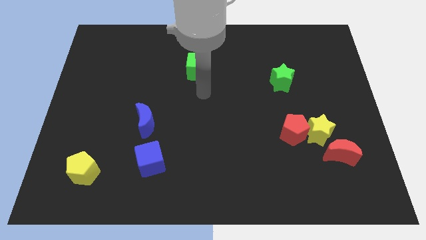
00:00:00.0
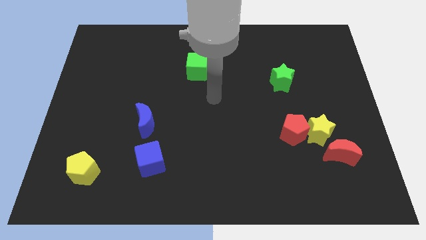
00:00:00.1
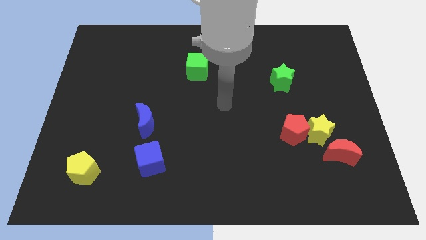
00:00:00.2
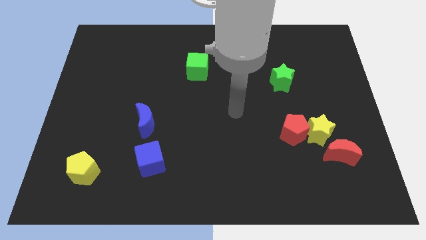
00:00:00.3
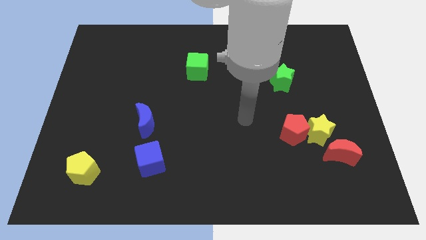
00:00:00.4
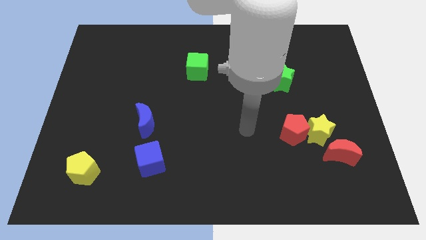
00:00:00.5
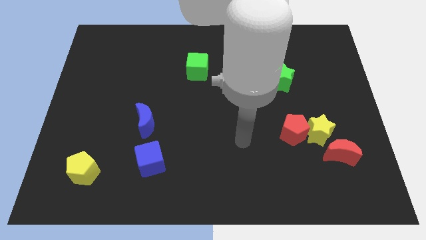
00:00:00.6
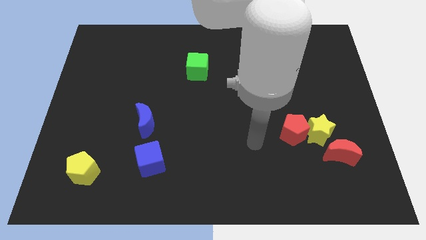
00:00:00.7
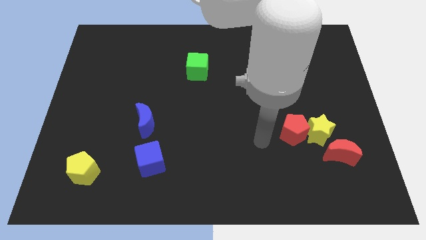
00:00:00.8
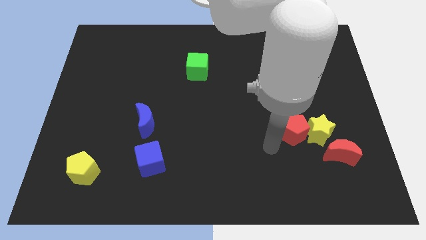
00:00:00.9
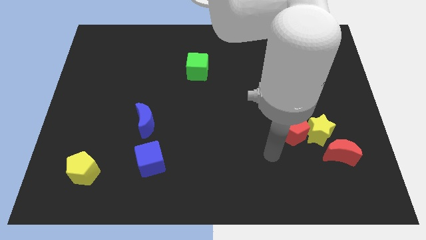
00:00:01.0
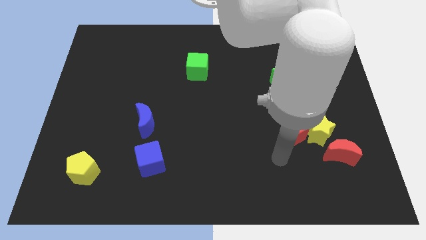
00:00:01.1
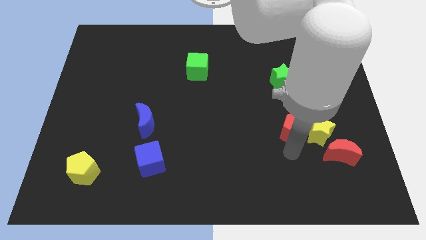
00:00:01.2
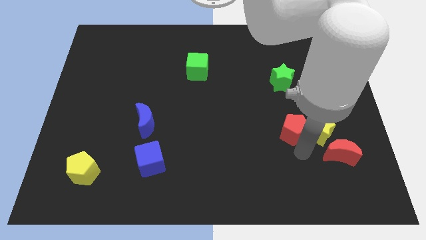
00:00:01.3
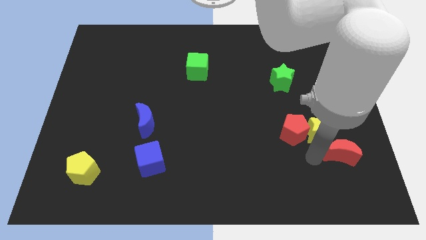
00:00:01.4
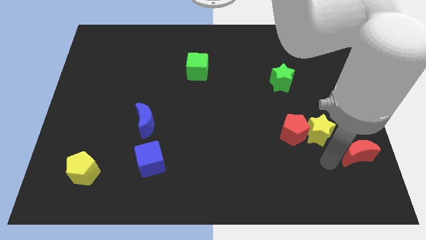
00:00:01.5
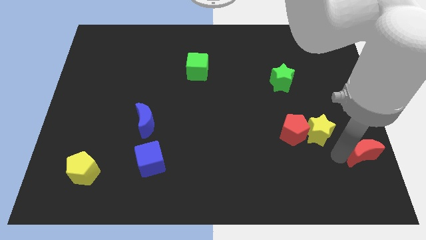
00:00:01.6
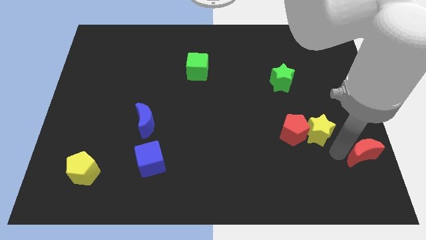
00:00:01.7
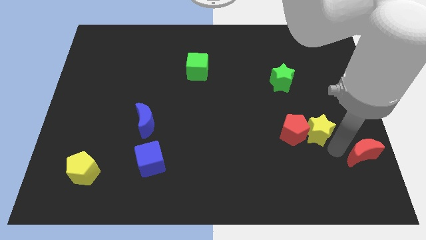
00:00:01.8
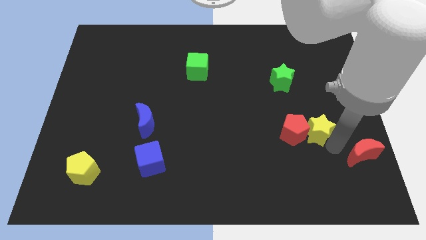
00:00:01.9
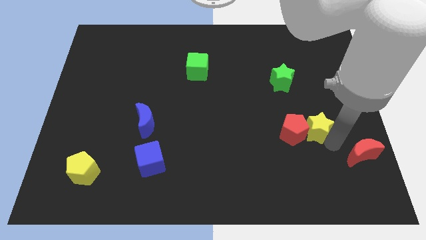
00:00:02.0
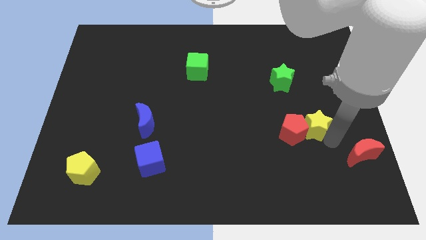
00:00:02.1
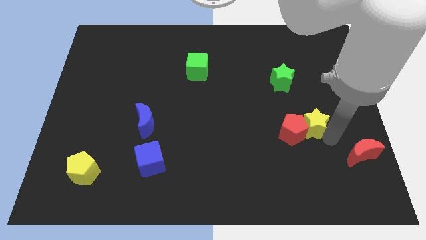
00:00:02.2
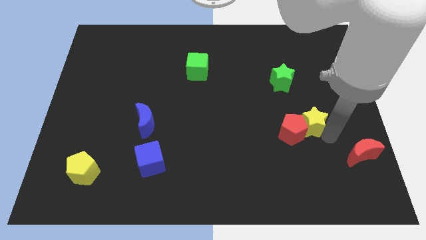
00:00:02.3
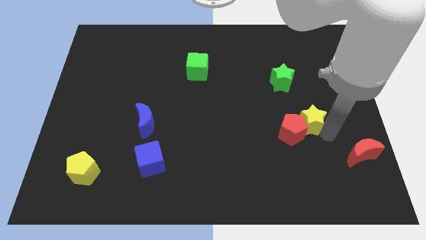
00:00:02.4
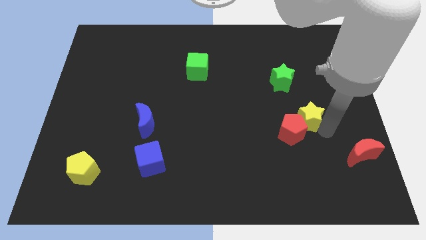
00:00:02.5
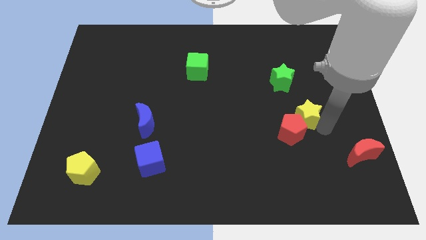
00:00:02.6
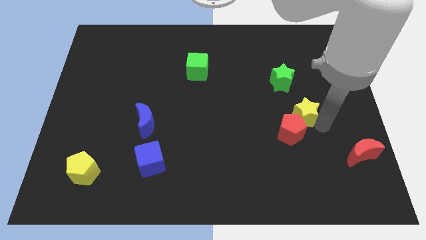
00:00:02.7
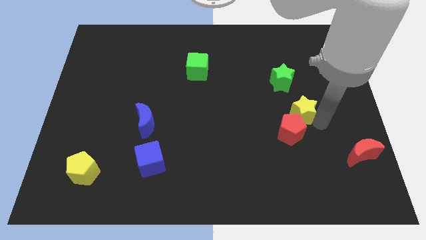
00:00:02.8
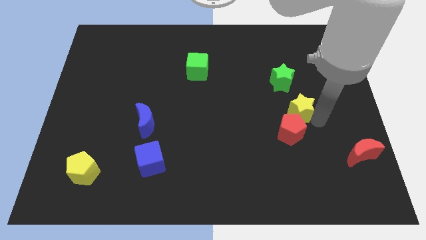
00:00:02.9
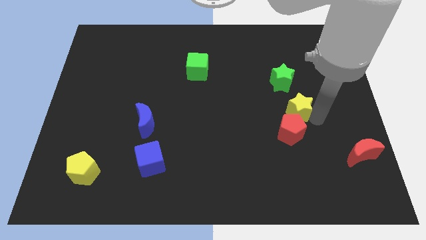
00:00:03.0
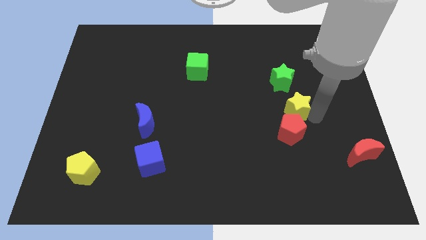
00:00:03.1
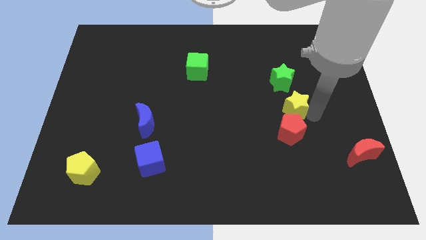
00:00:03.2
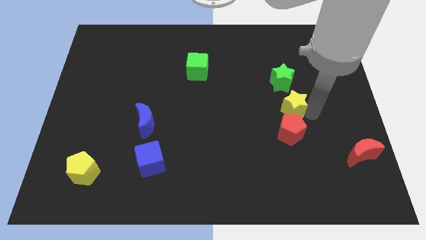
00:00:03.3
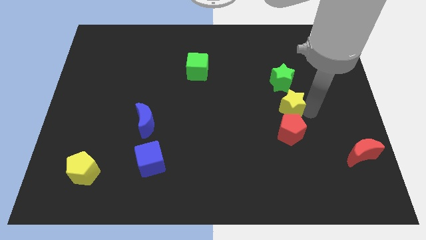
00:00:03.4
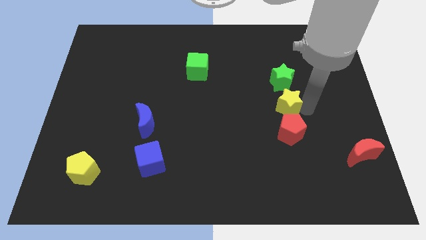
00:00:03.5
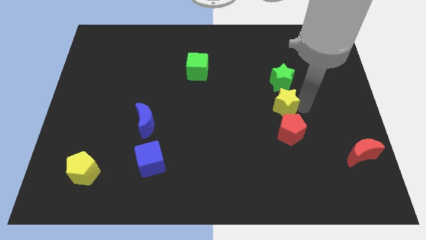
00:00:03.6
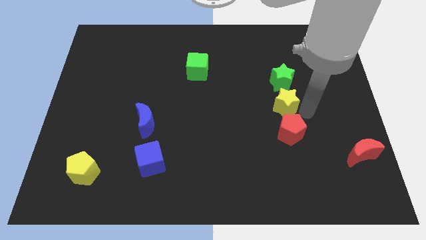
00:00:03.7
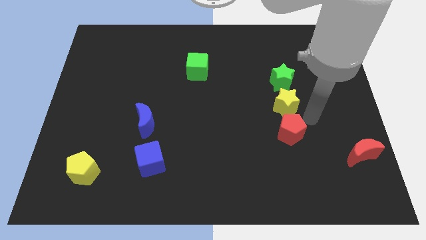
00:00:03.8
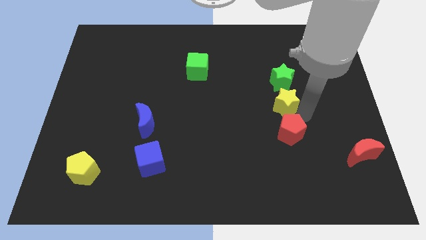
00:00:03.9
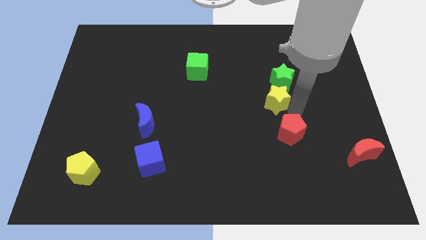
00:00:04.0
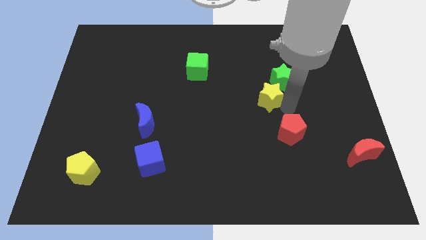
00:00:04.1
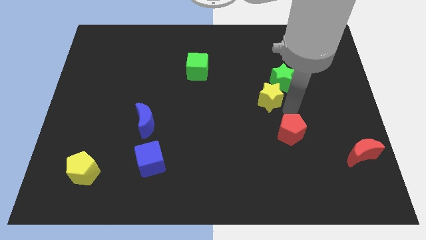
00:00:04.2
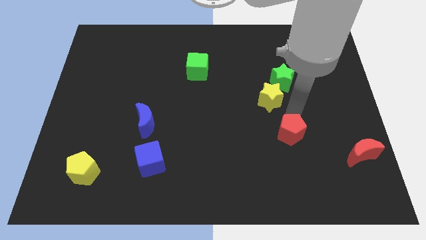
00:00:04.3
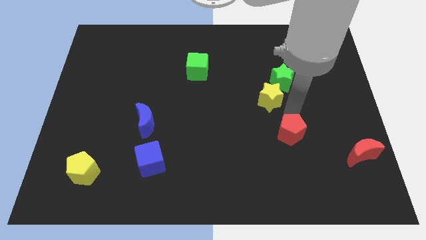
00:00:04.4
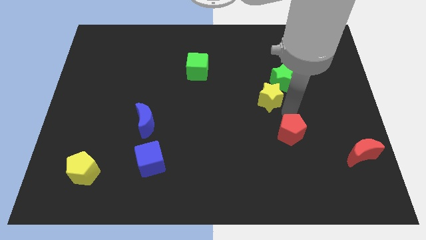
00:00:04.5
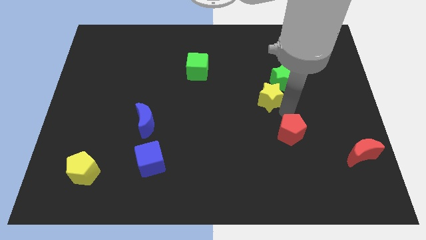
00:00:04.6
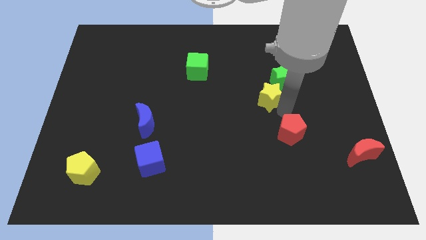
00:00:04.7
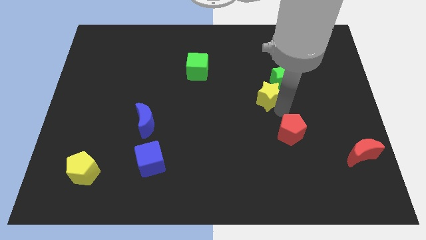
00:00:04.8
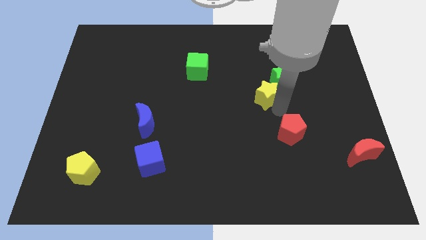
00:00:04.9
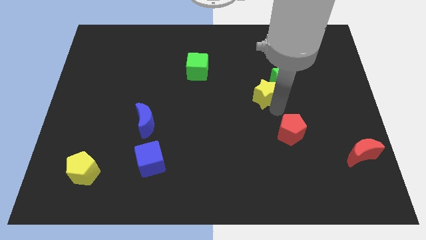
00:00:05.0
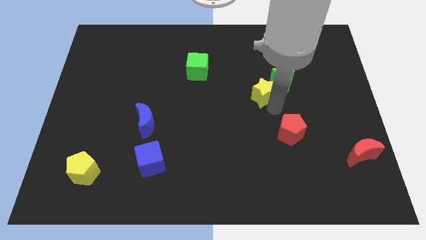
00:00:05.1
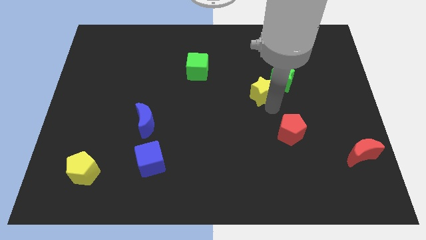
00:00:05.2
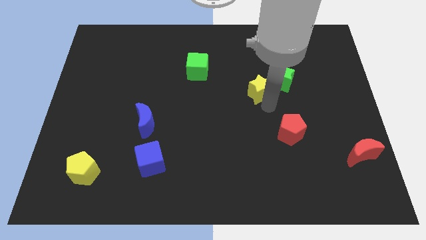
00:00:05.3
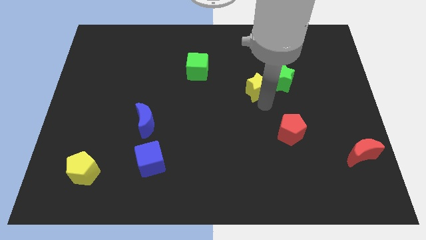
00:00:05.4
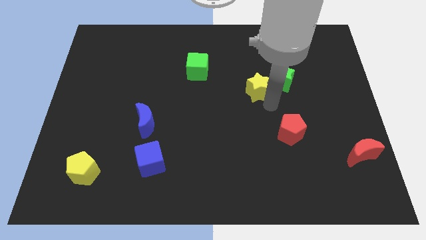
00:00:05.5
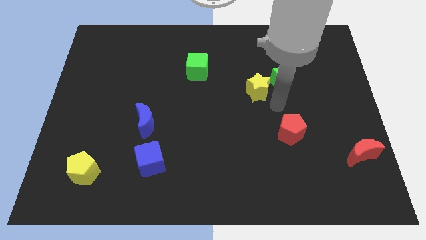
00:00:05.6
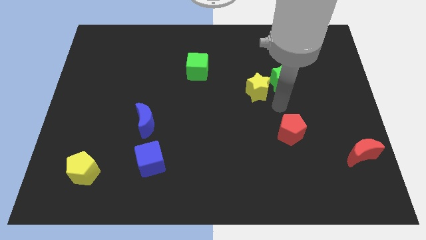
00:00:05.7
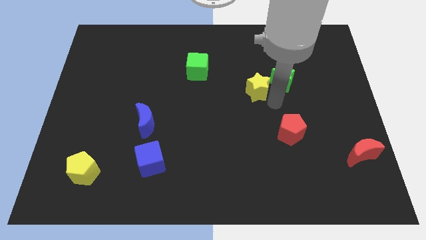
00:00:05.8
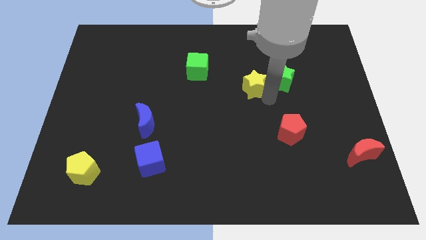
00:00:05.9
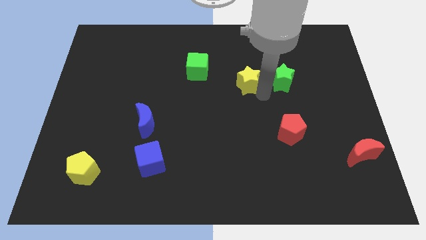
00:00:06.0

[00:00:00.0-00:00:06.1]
slide the yellow star up and to the left

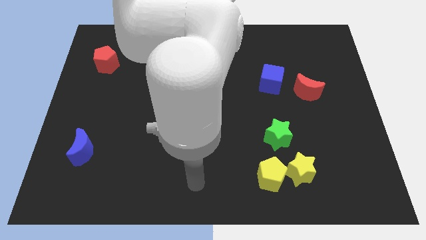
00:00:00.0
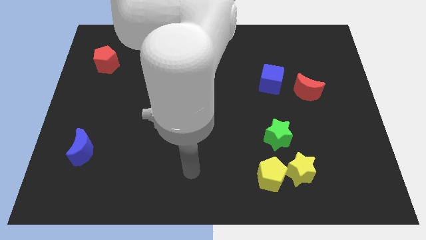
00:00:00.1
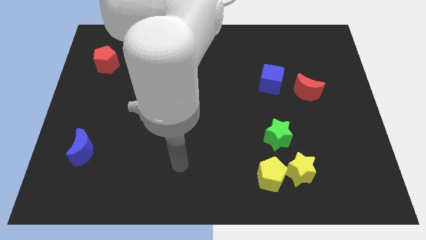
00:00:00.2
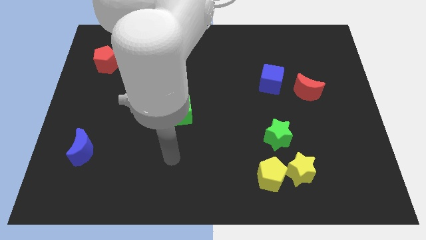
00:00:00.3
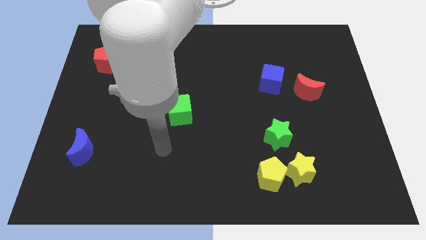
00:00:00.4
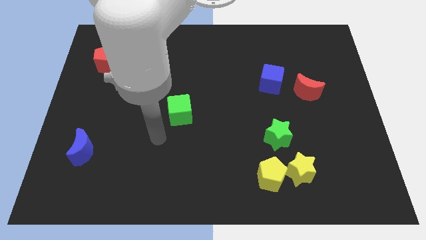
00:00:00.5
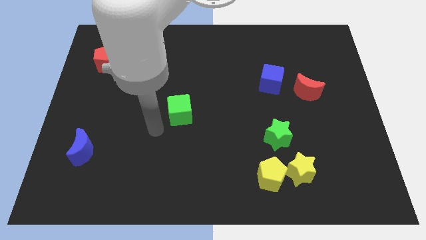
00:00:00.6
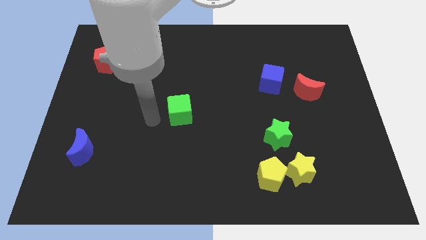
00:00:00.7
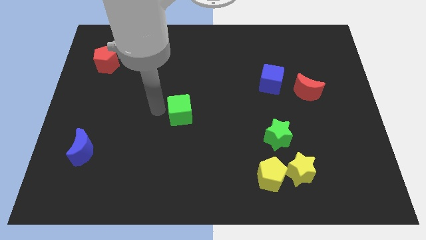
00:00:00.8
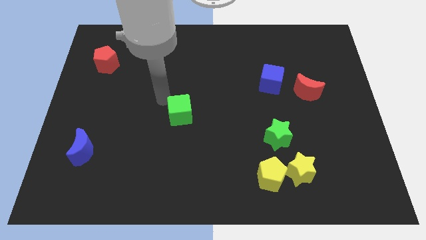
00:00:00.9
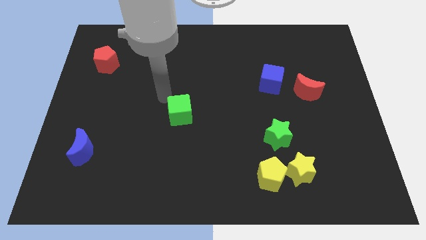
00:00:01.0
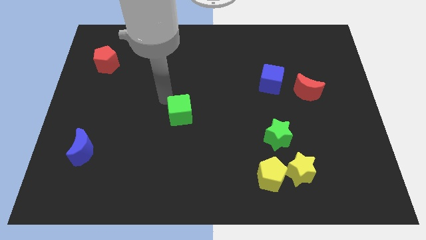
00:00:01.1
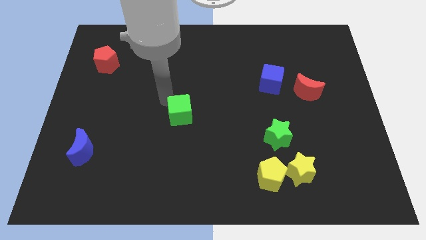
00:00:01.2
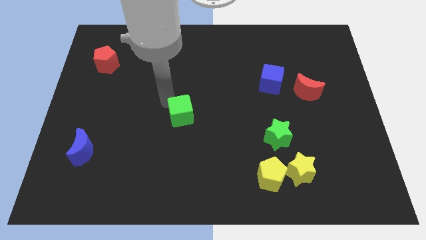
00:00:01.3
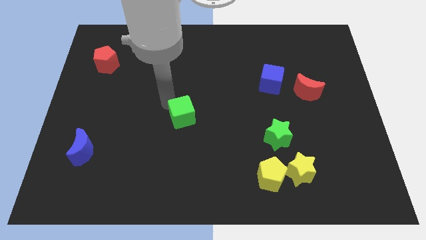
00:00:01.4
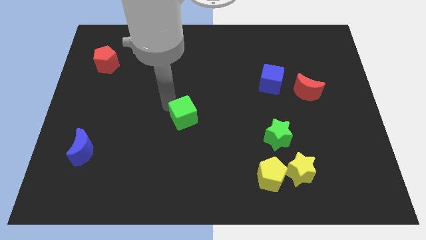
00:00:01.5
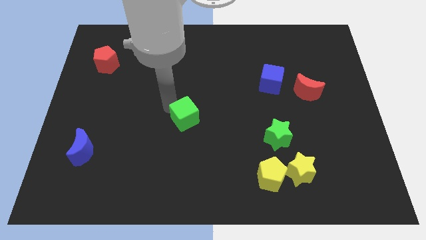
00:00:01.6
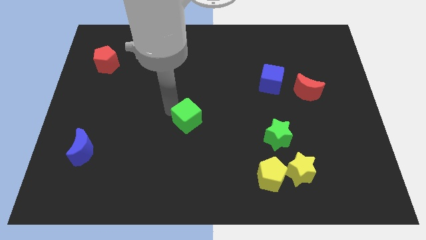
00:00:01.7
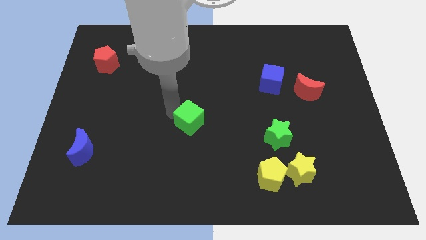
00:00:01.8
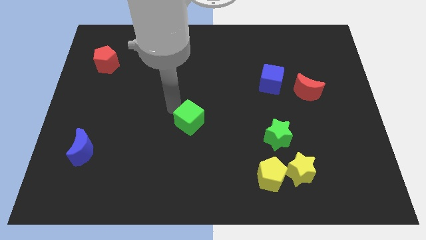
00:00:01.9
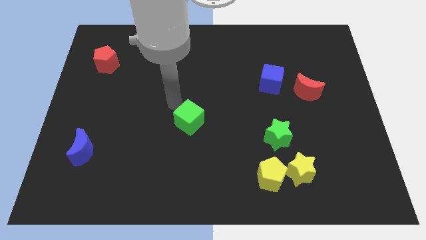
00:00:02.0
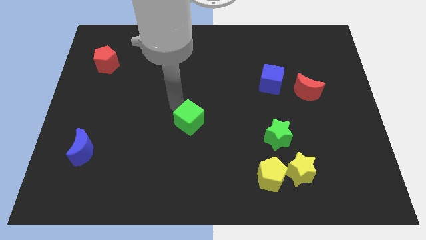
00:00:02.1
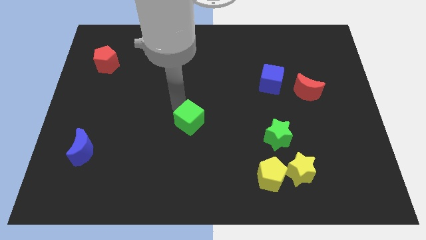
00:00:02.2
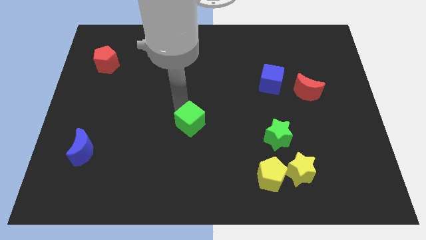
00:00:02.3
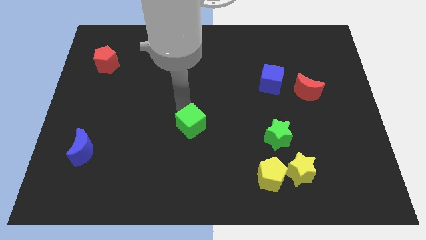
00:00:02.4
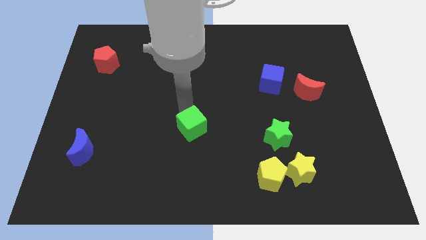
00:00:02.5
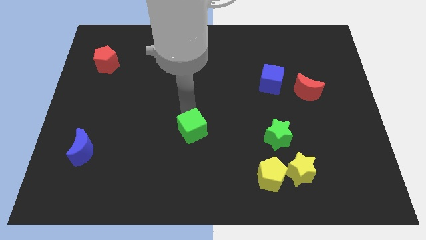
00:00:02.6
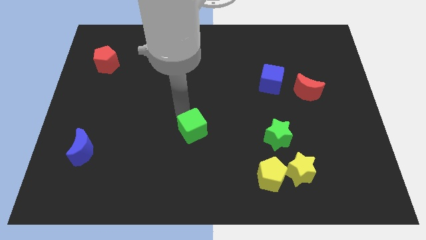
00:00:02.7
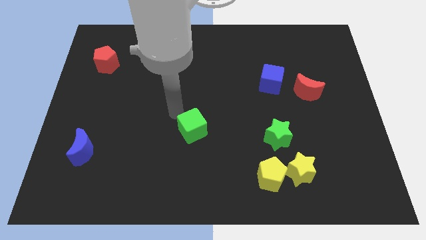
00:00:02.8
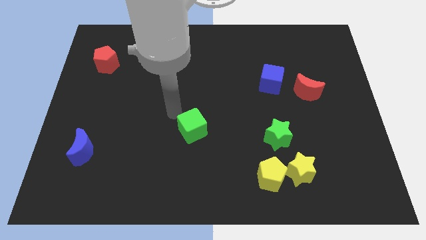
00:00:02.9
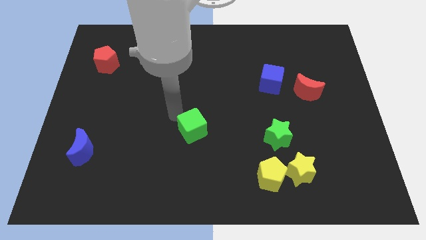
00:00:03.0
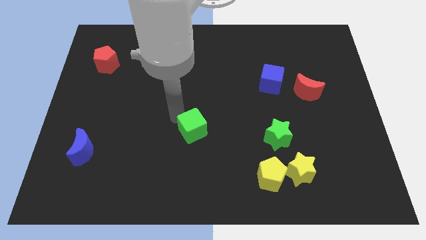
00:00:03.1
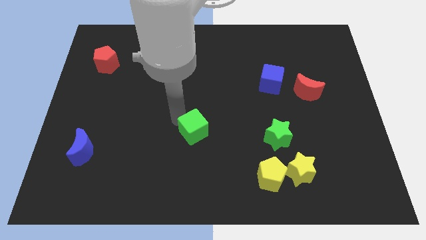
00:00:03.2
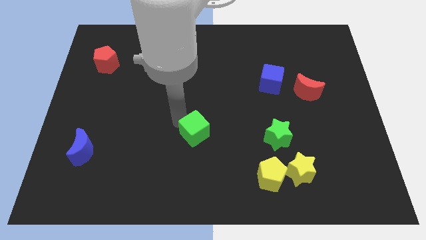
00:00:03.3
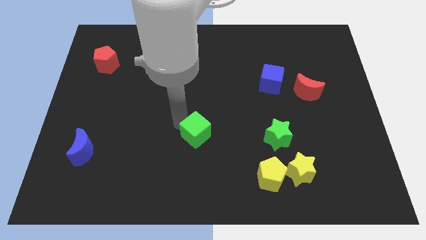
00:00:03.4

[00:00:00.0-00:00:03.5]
slightly push the green cube down and right diagonally
